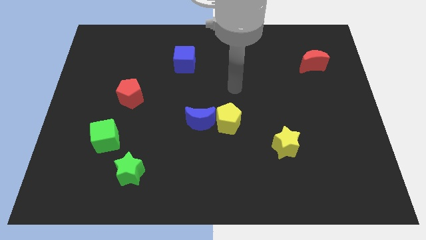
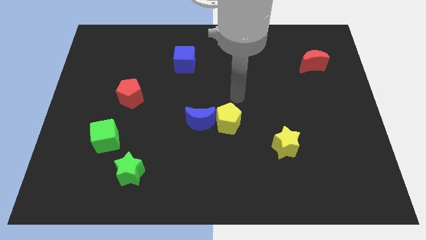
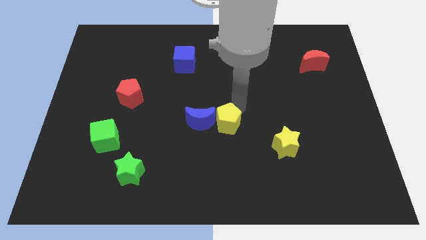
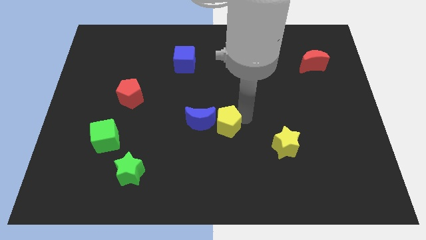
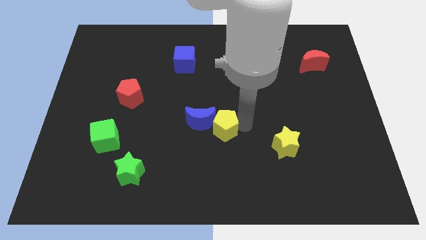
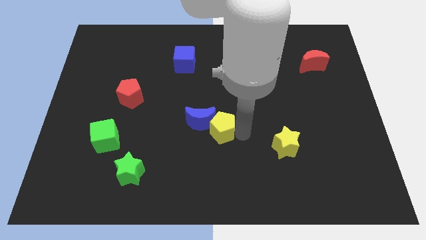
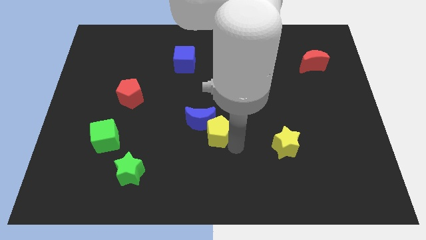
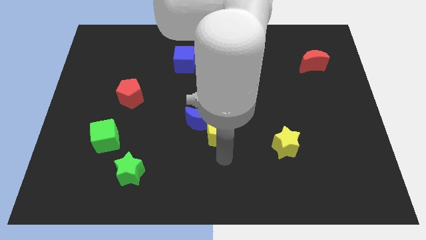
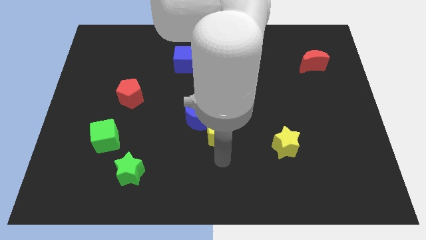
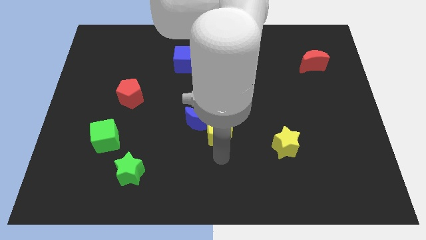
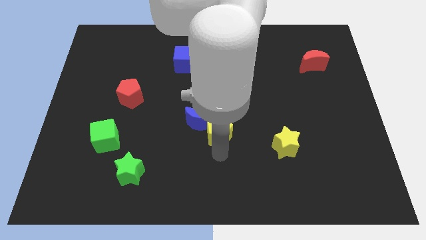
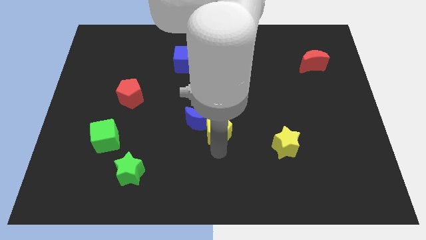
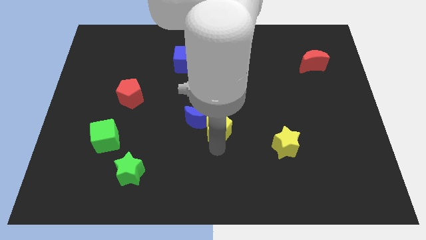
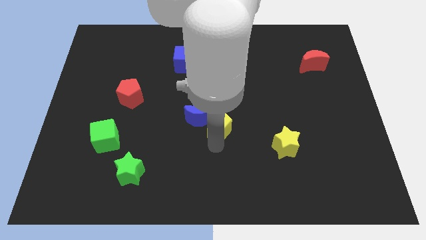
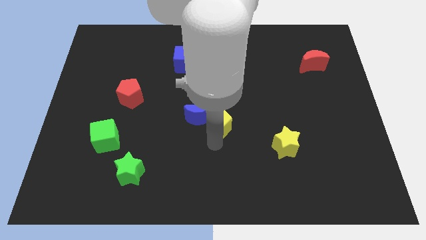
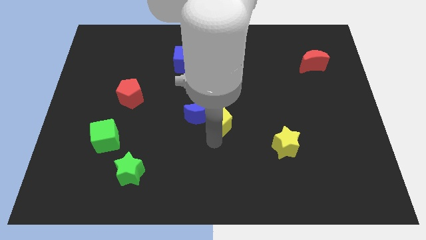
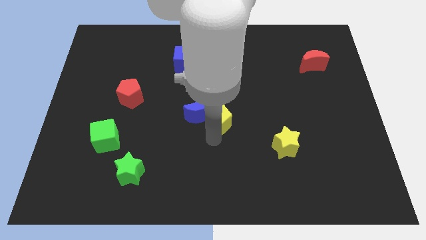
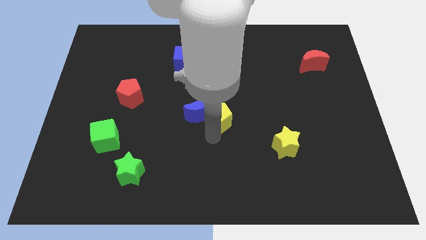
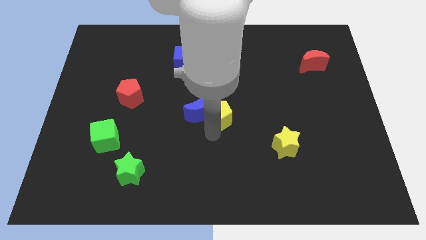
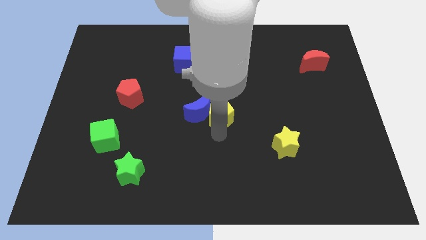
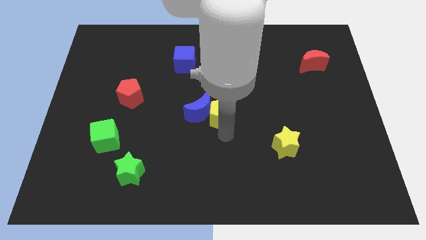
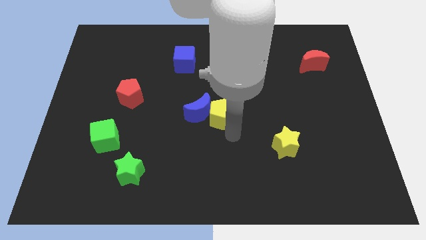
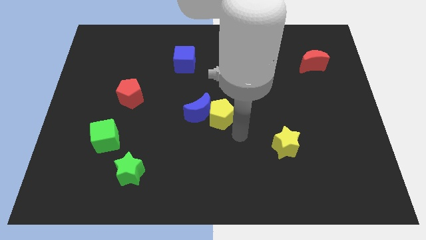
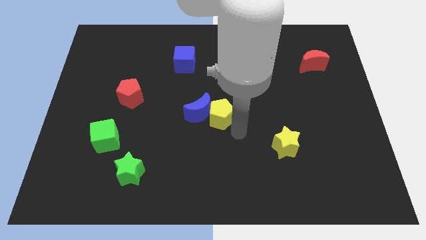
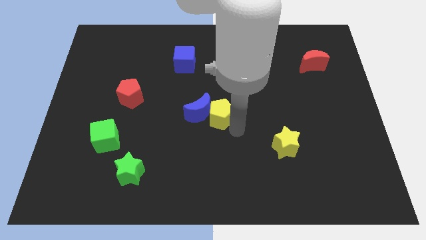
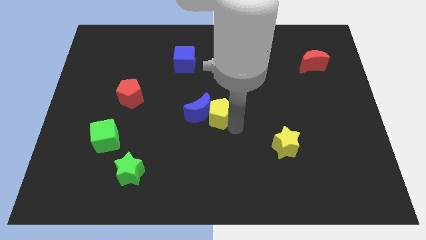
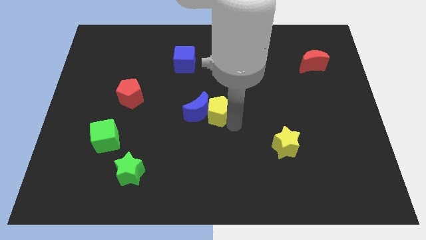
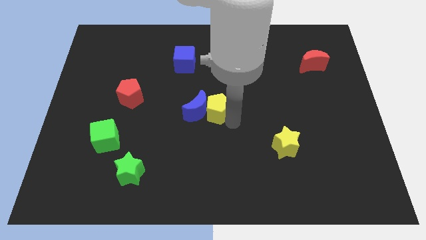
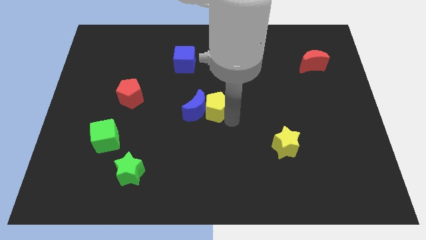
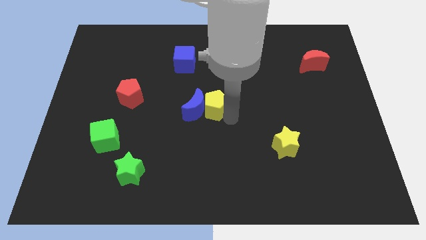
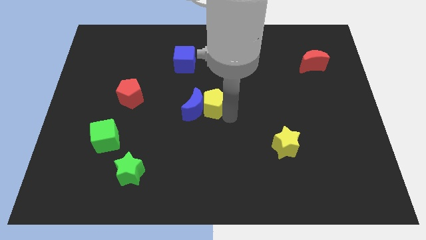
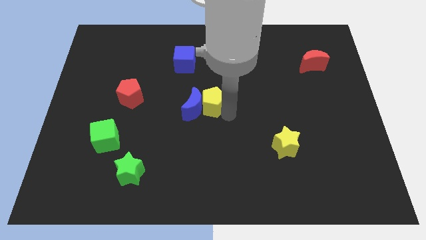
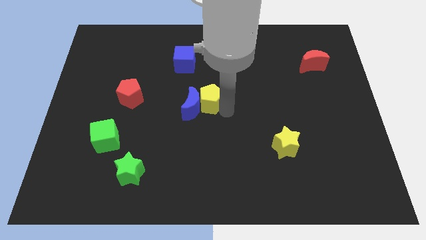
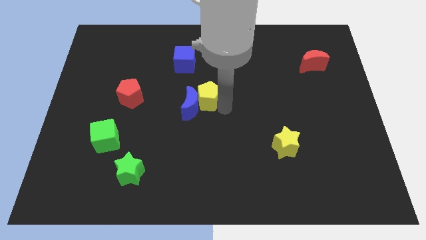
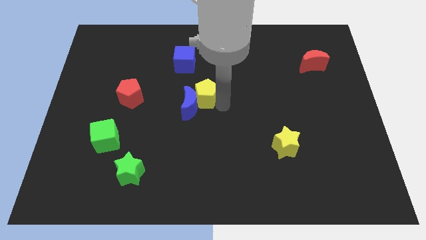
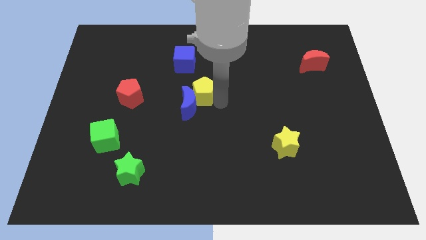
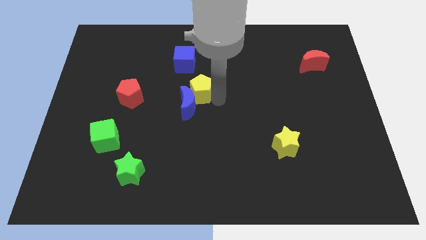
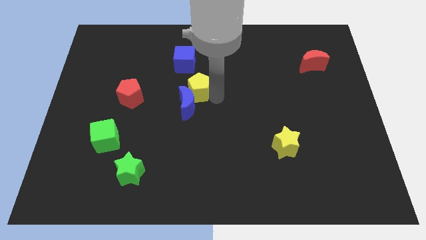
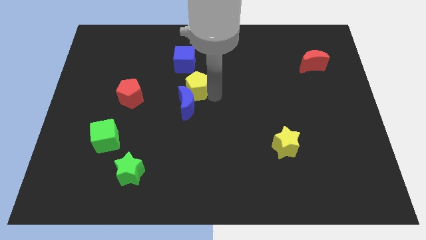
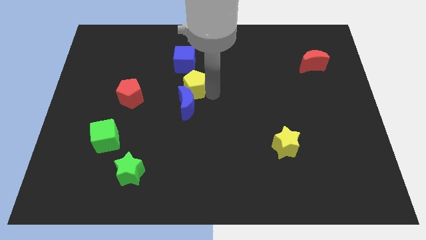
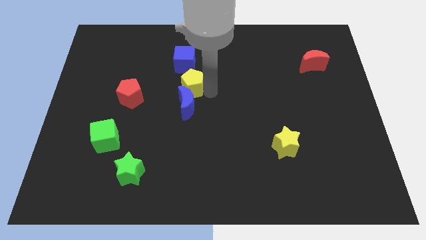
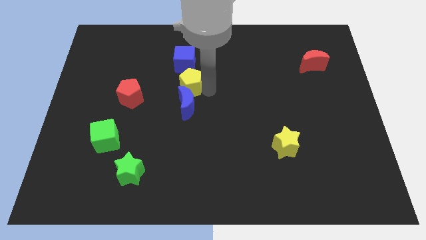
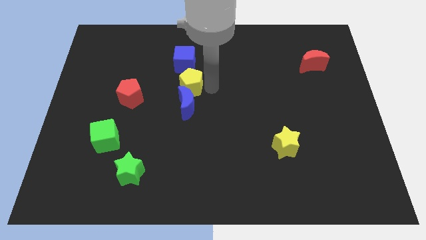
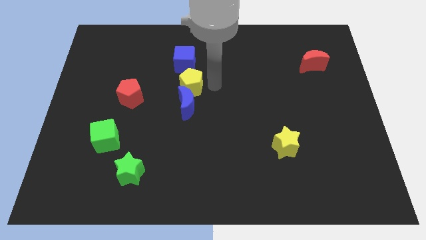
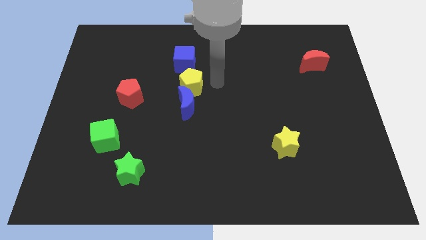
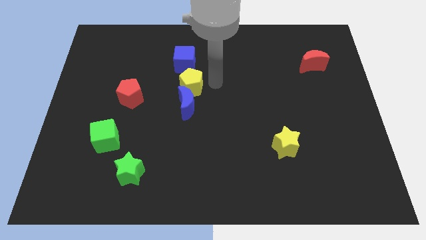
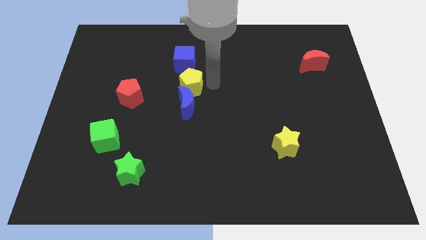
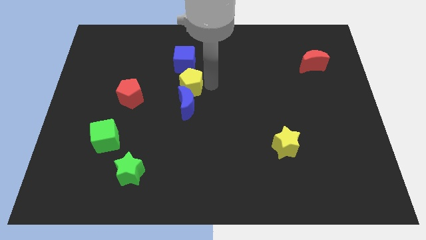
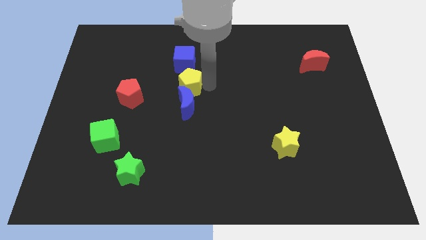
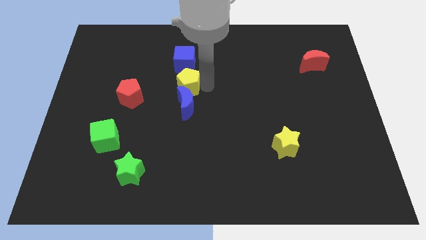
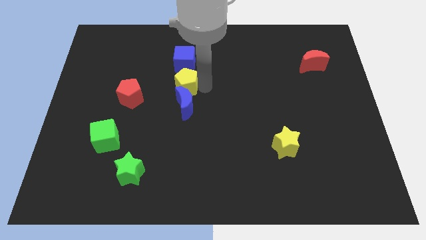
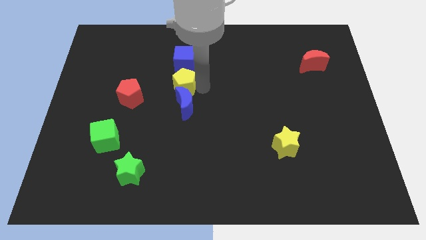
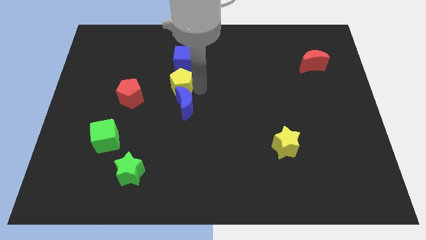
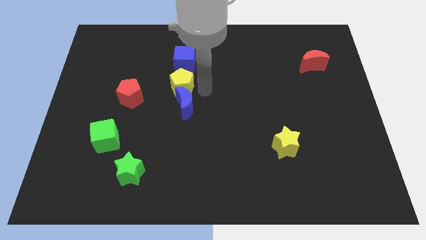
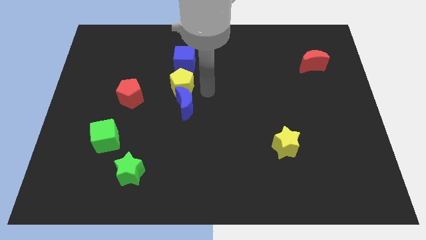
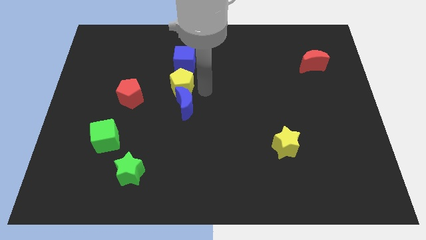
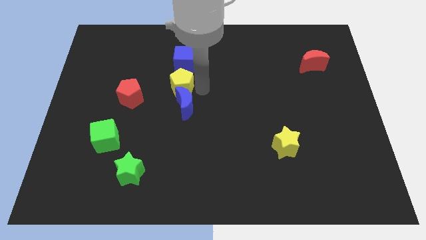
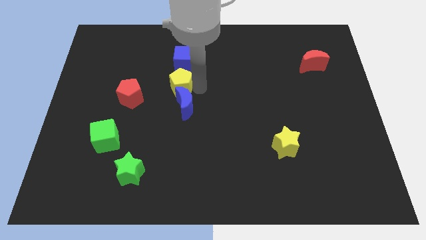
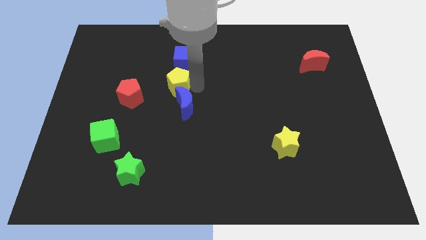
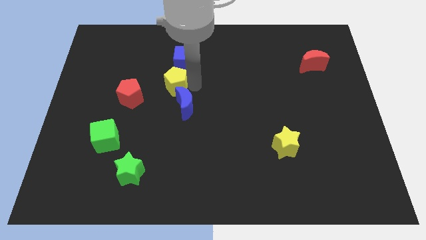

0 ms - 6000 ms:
slide the yellow pentagon to the top right side of the red pentagon

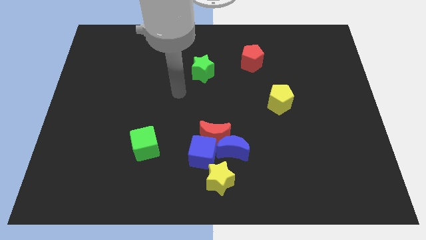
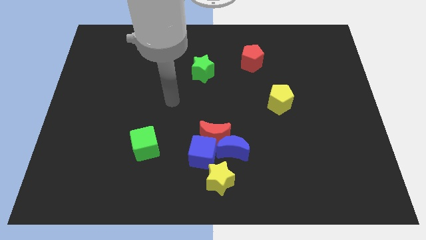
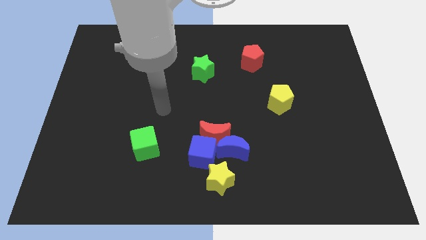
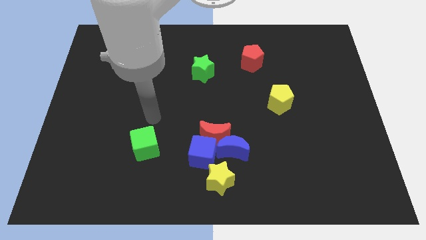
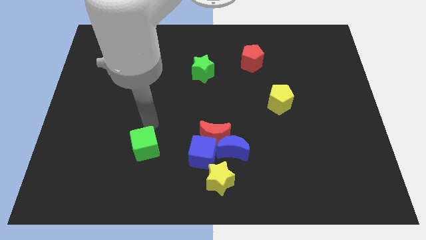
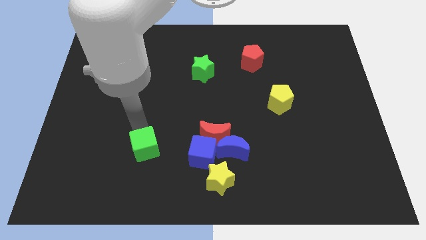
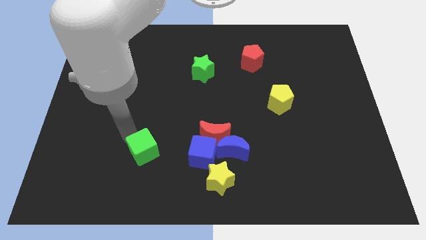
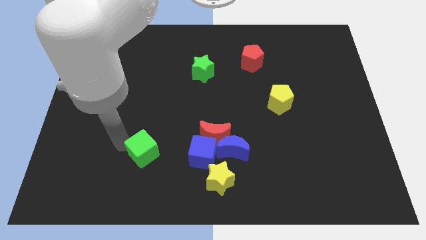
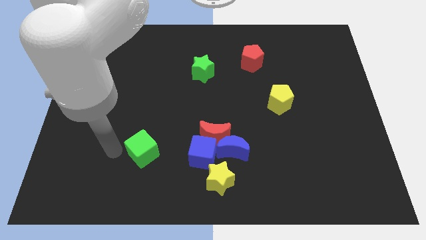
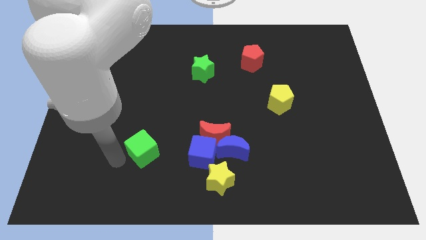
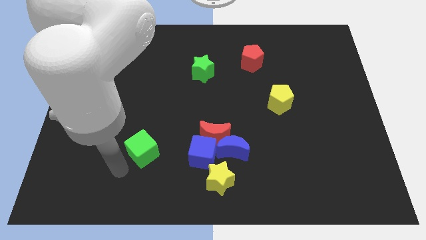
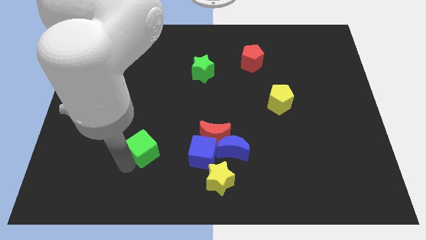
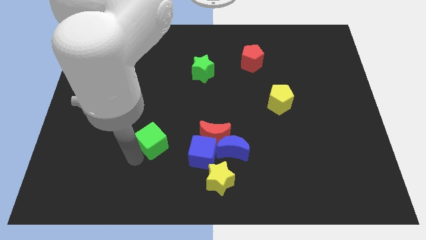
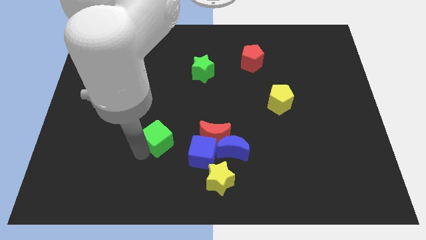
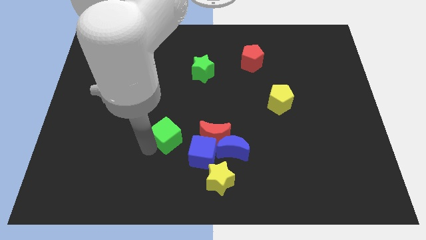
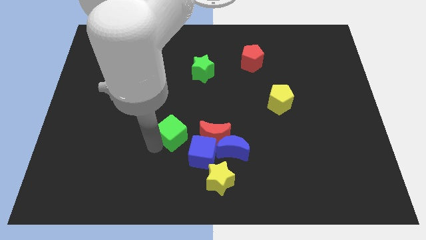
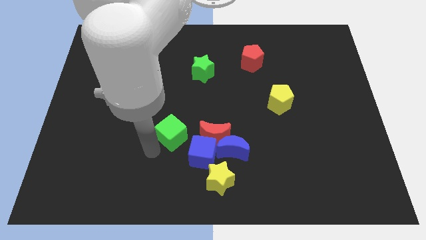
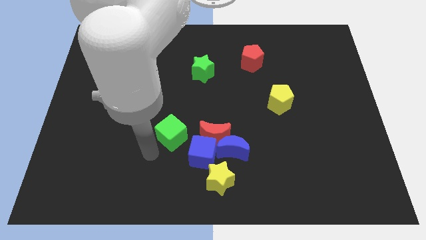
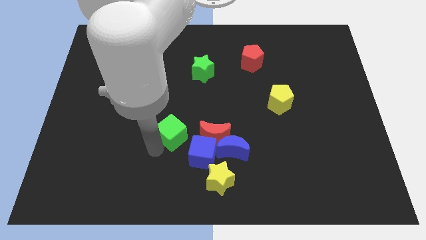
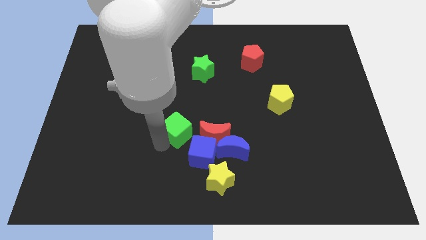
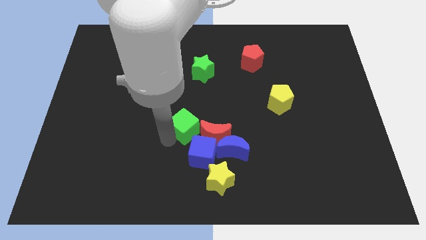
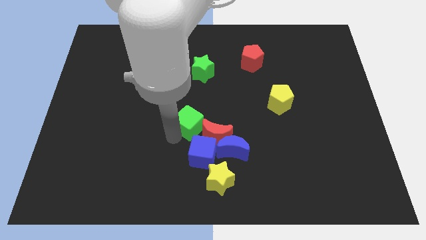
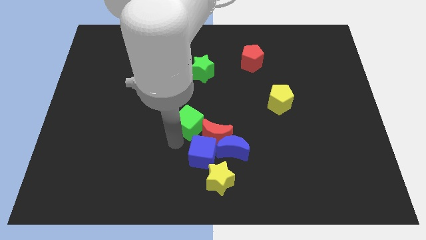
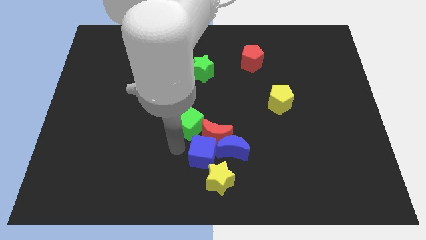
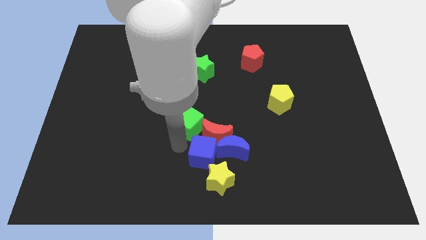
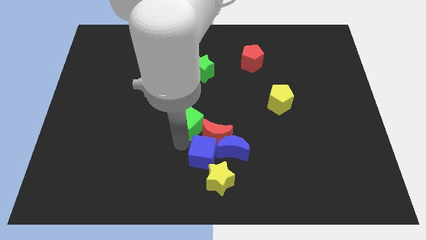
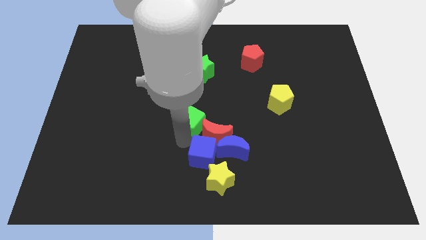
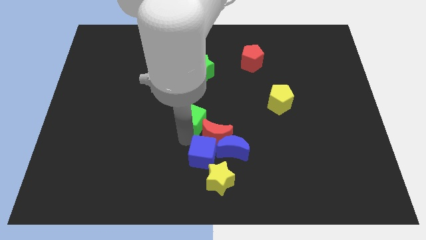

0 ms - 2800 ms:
slide the green cube to the bottom side of the green star
